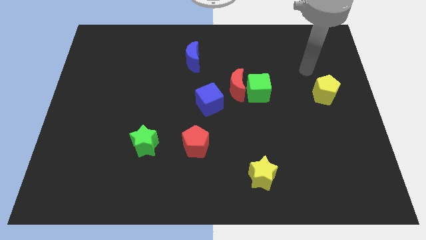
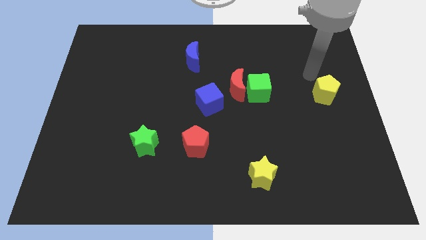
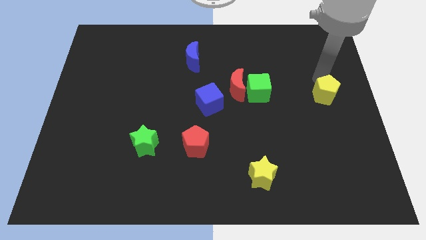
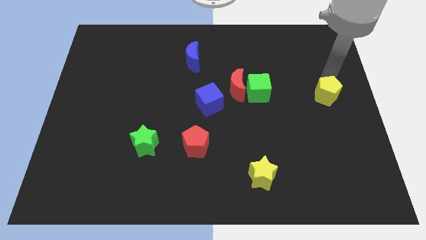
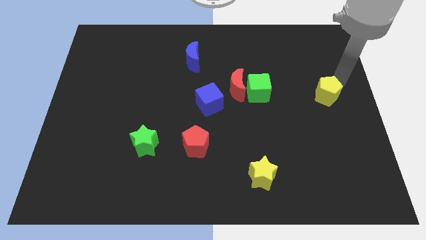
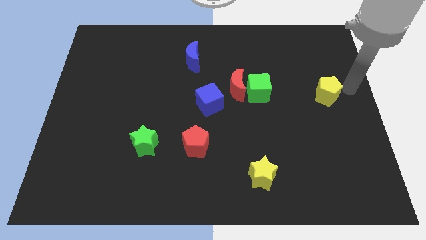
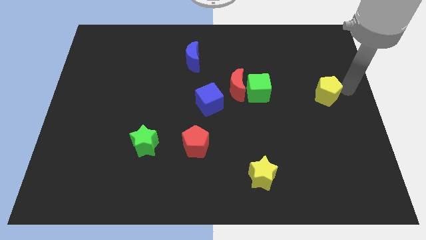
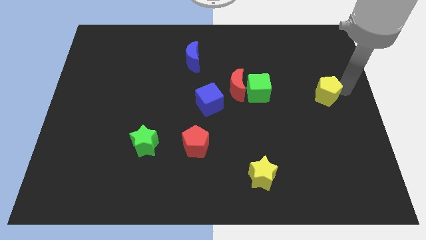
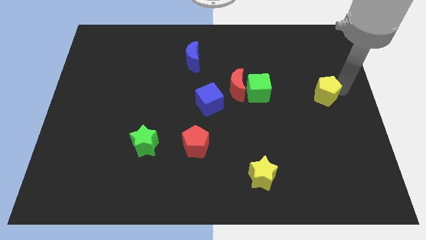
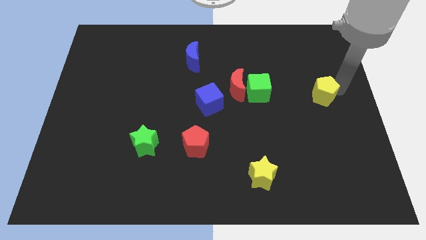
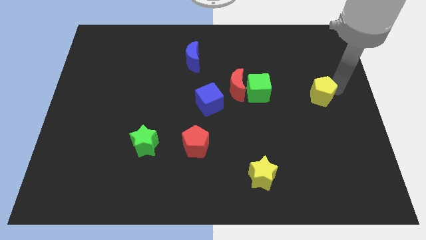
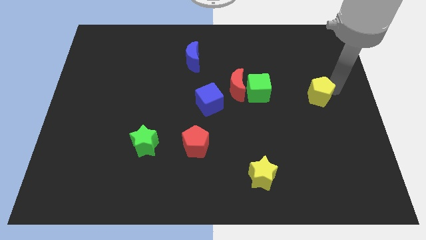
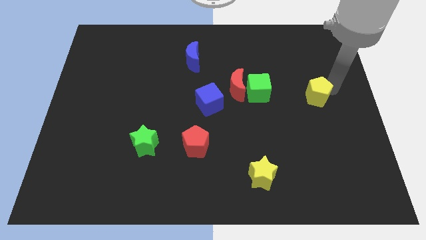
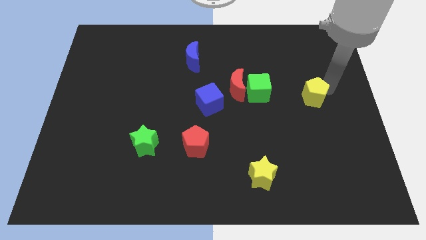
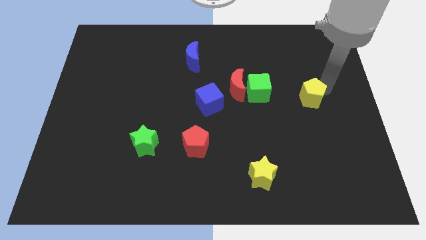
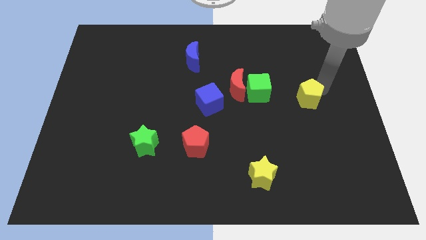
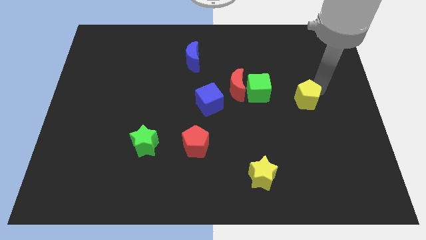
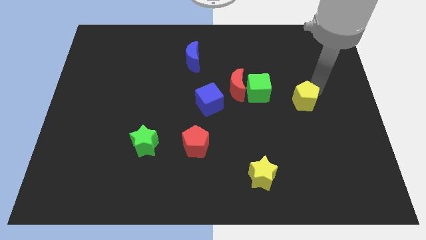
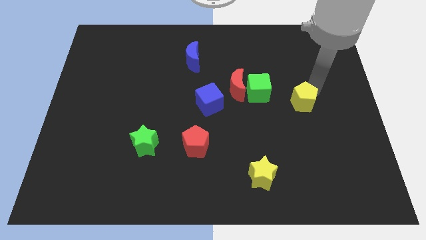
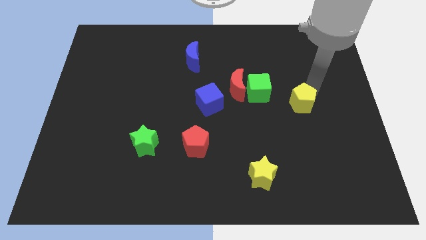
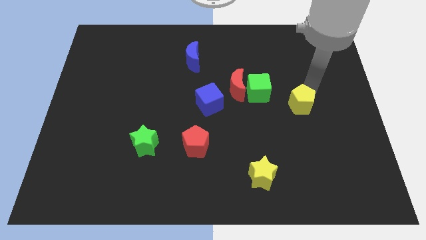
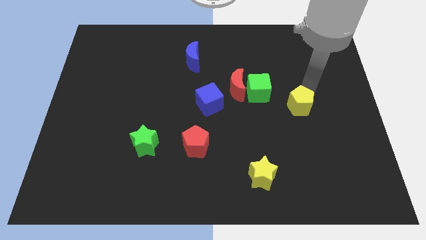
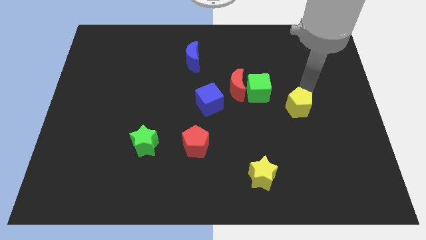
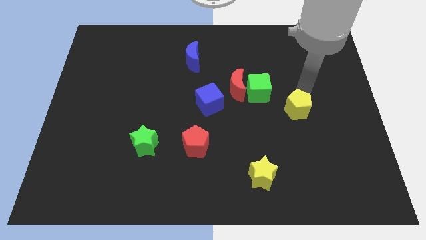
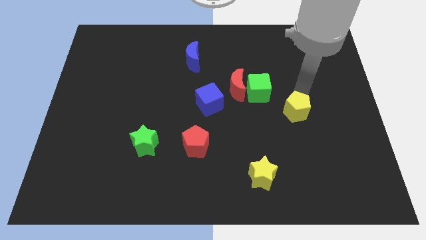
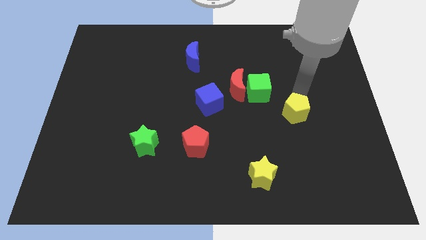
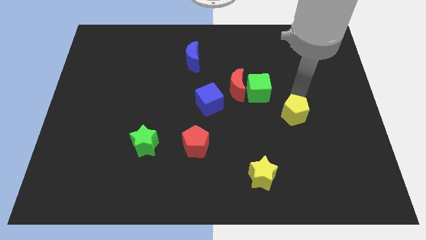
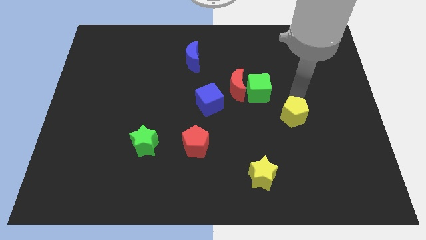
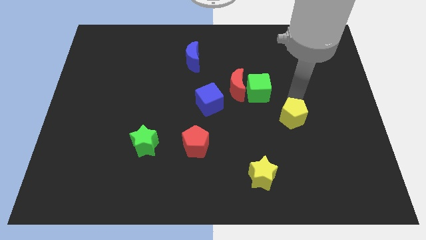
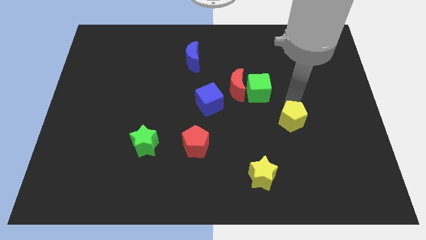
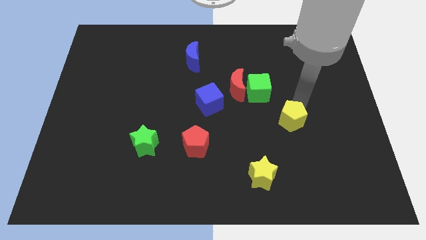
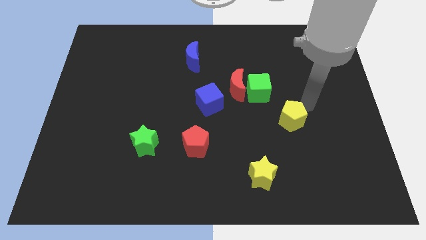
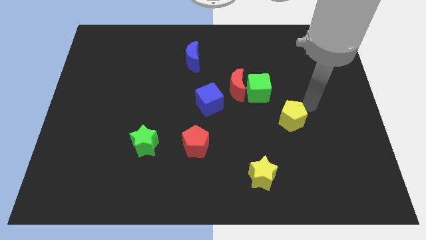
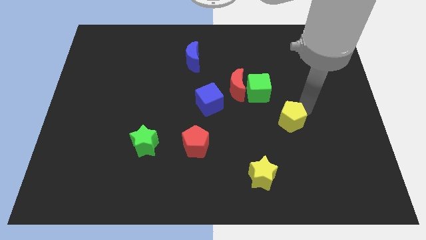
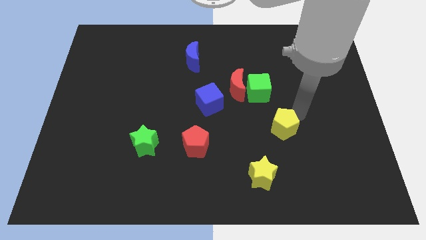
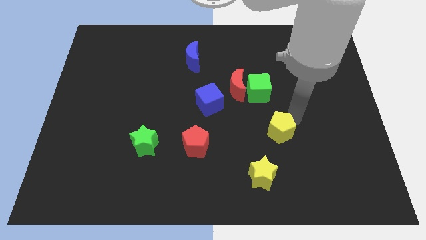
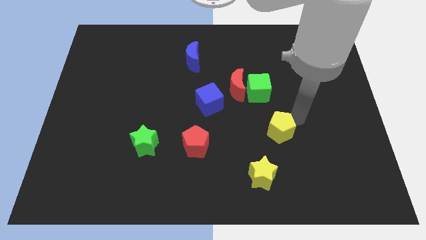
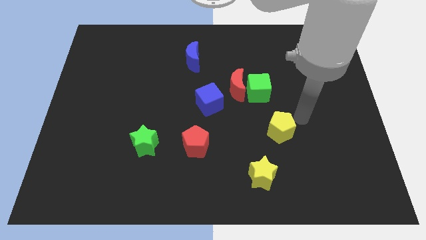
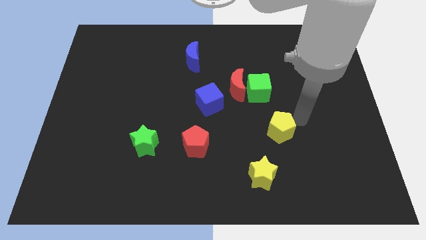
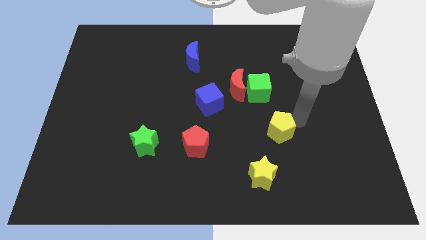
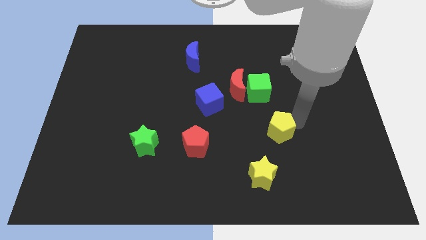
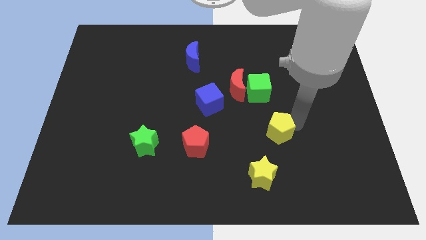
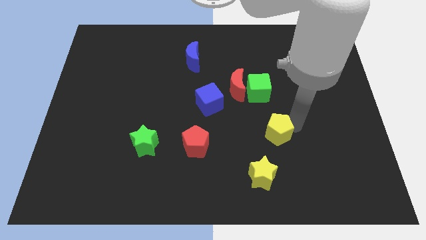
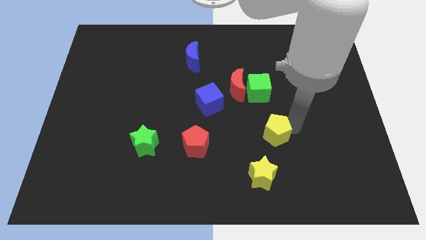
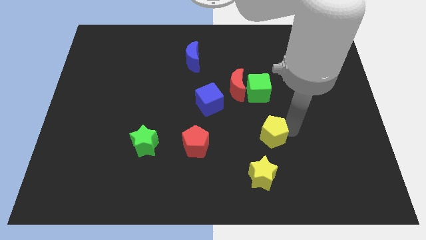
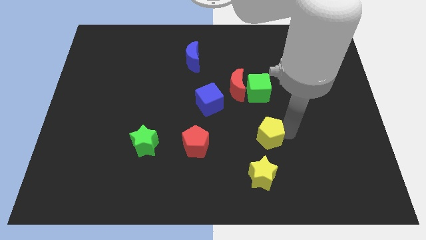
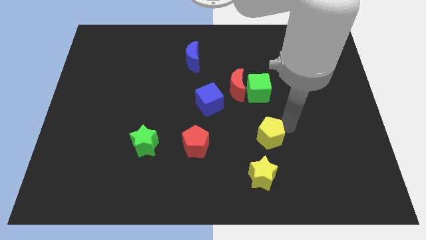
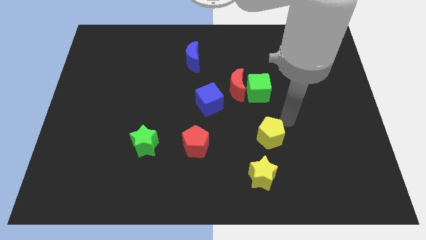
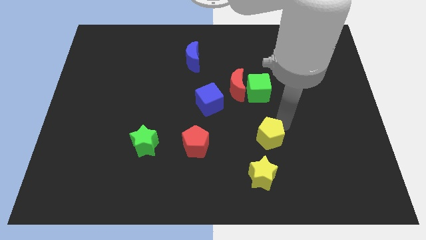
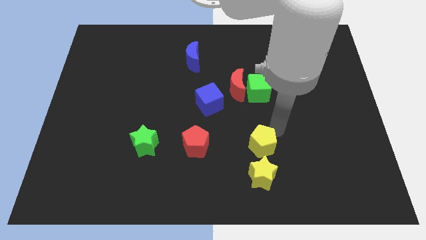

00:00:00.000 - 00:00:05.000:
push the yellow pentagon down and then left

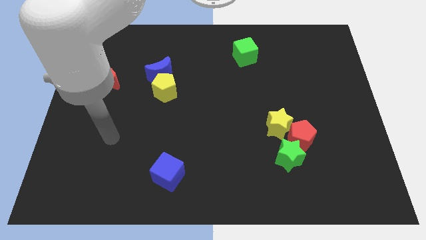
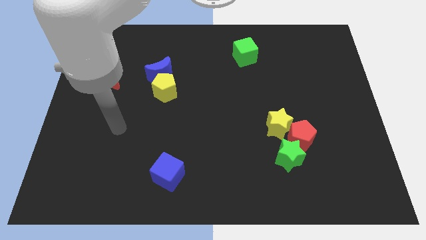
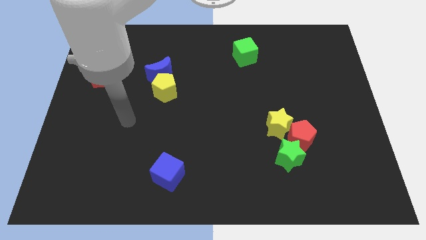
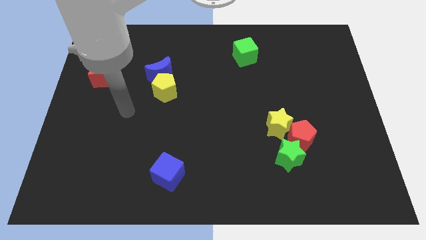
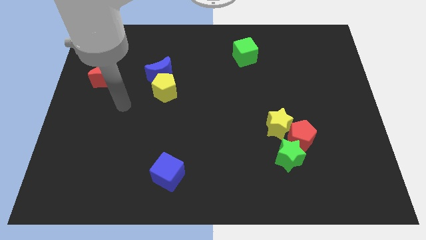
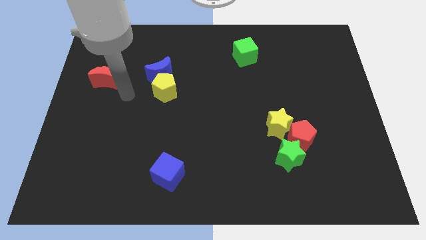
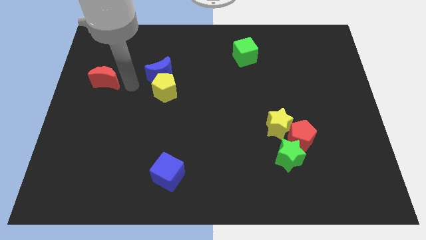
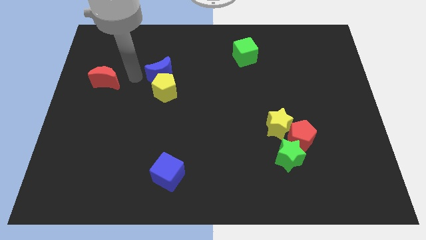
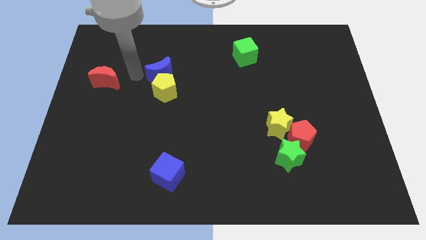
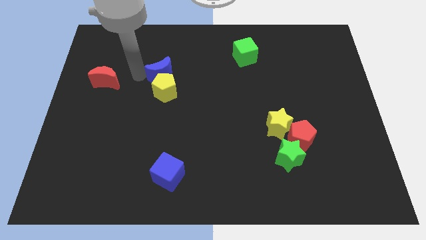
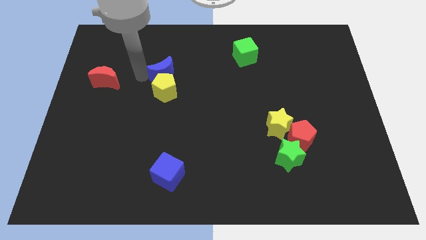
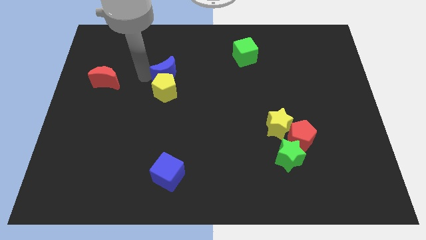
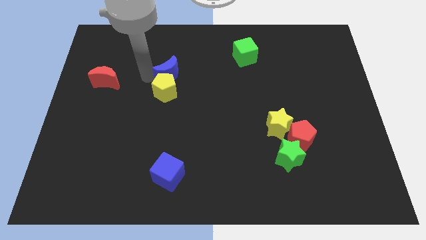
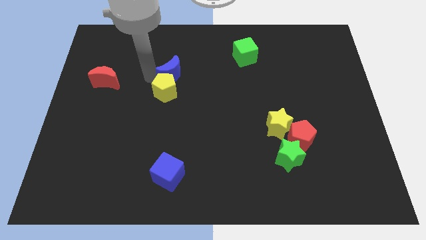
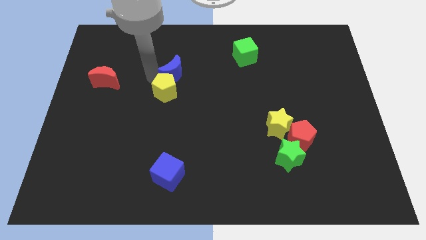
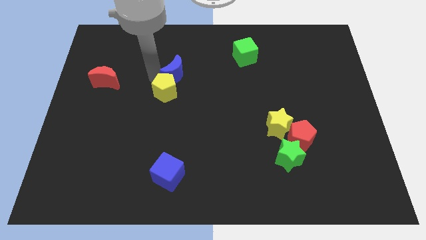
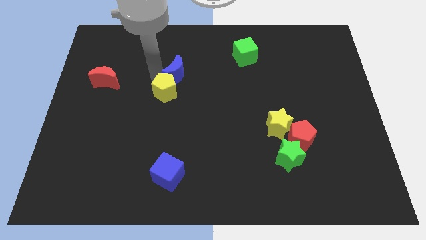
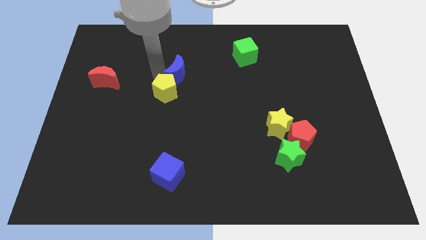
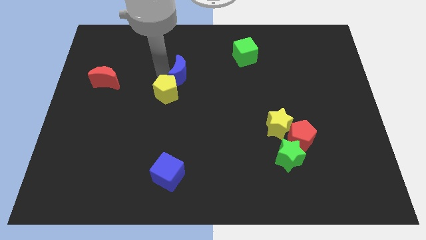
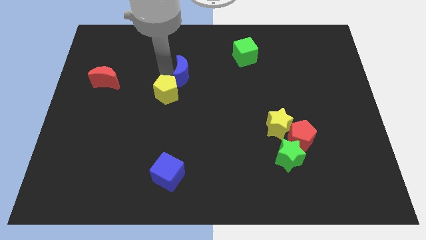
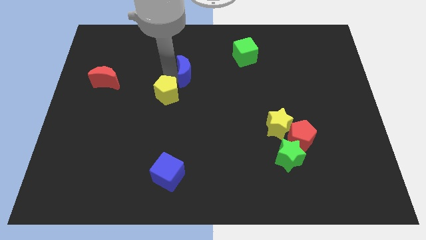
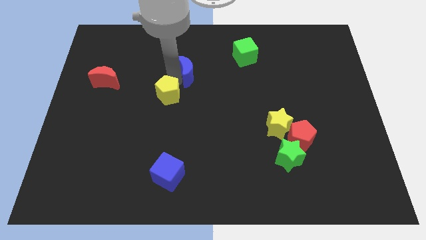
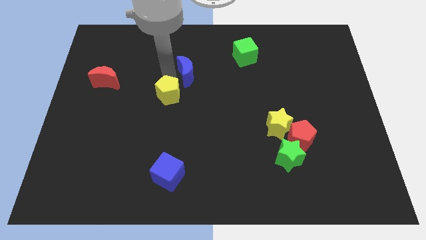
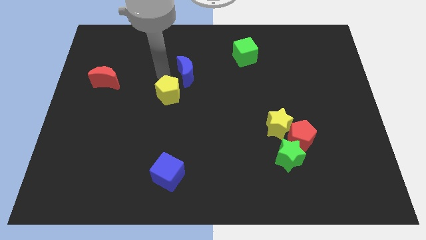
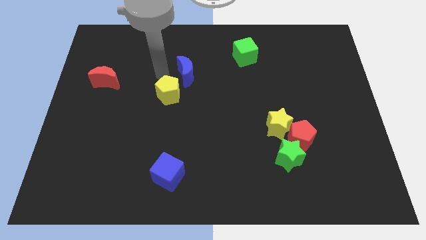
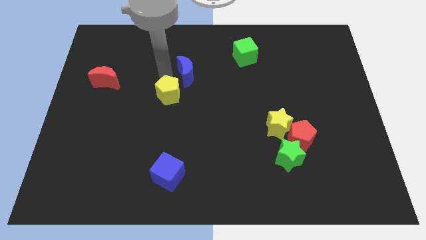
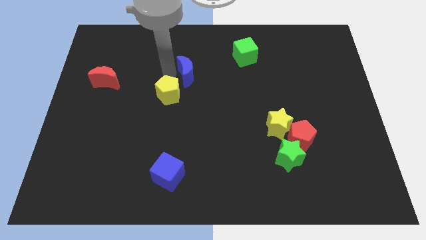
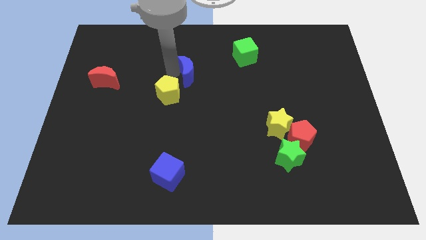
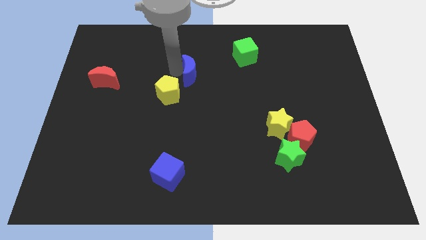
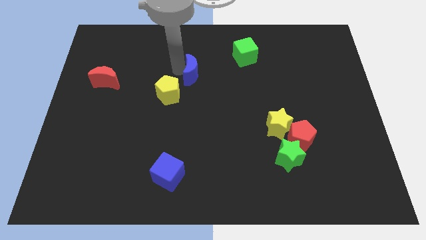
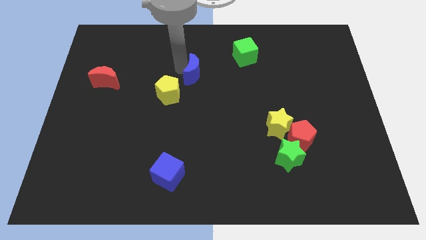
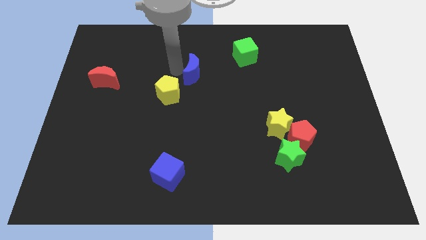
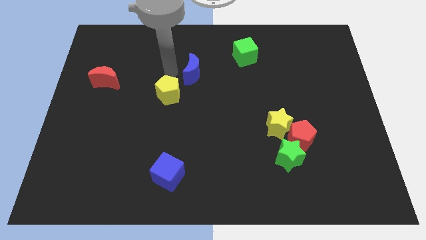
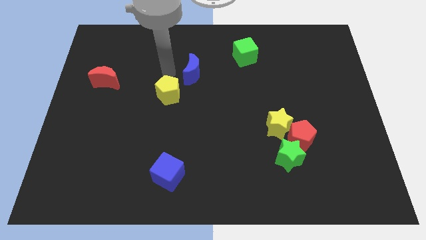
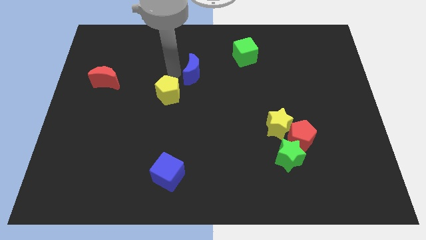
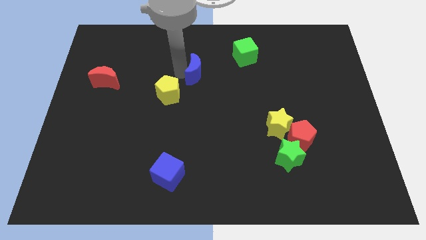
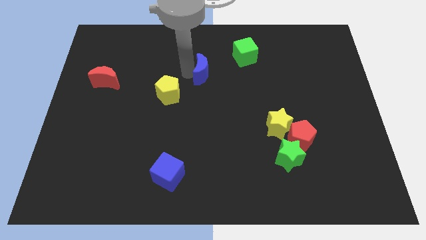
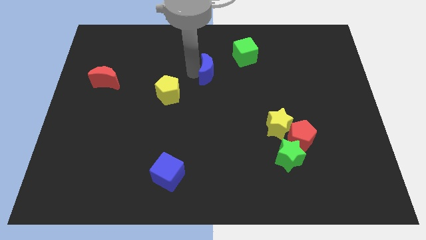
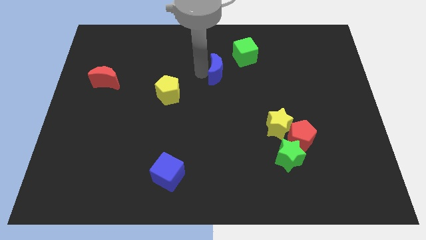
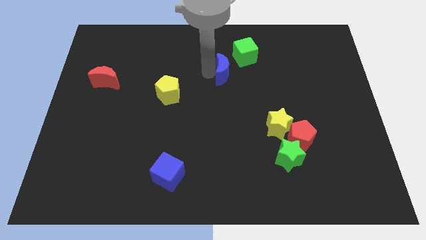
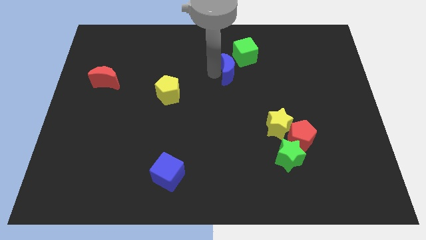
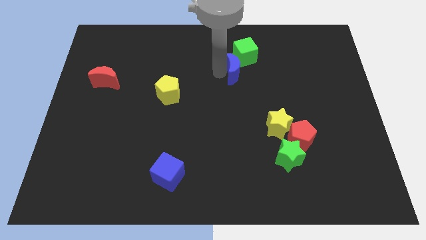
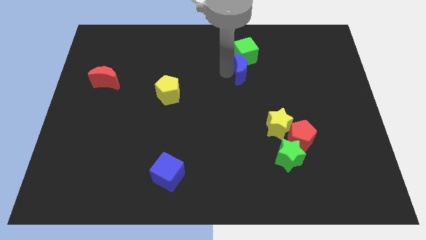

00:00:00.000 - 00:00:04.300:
push the blue moon right
